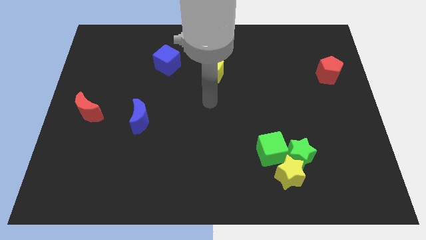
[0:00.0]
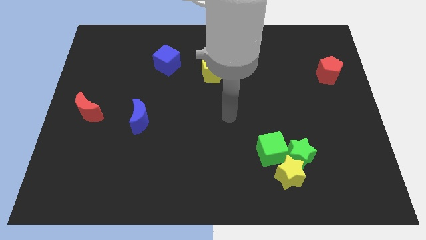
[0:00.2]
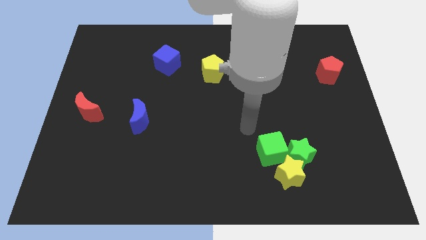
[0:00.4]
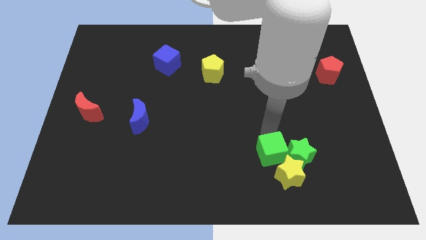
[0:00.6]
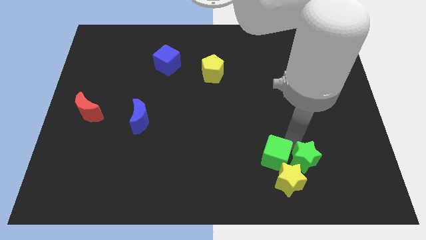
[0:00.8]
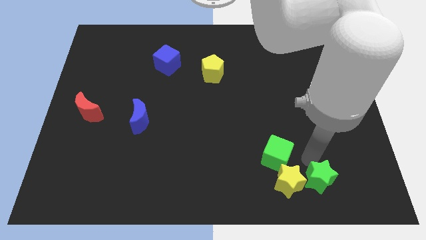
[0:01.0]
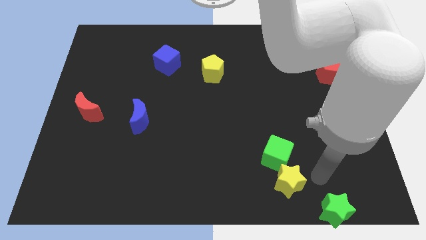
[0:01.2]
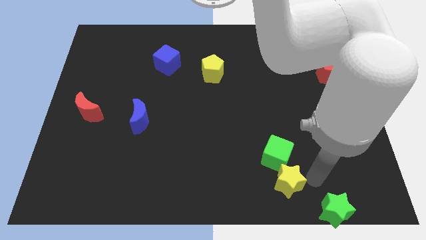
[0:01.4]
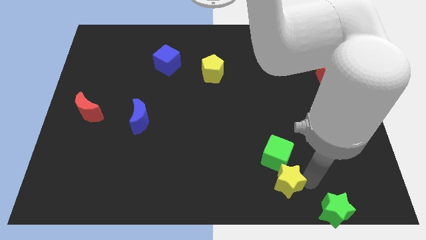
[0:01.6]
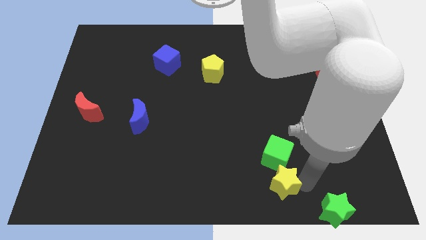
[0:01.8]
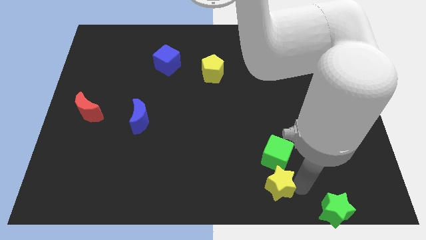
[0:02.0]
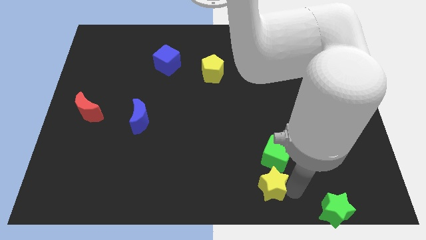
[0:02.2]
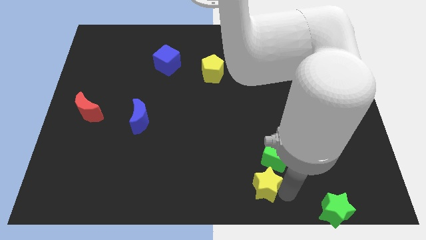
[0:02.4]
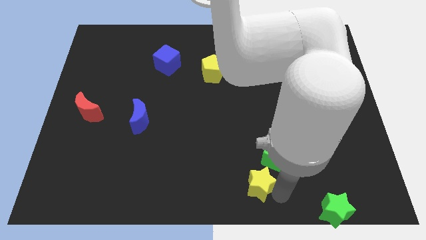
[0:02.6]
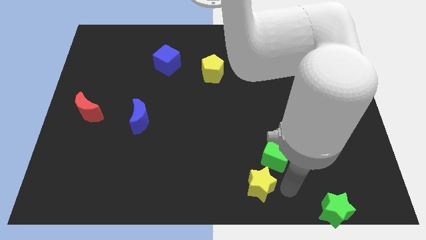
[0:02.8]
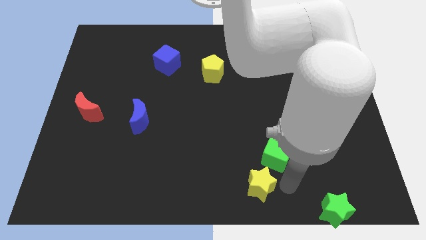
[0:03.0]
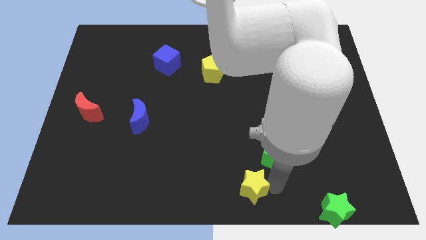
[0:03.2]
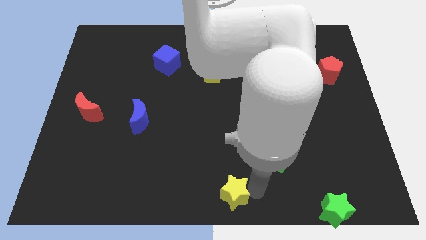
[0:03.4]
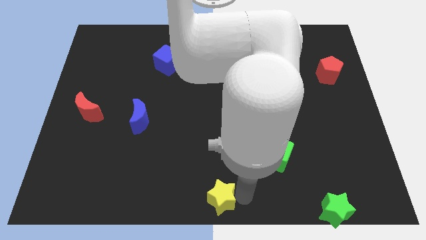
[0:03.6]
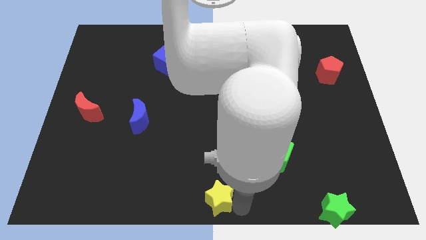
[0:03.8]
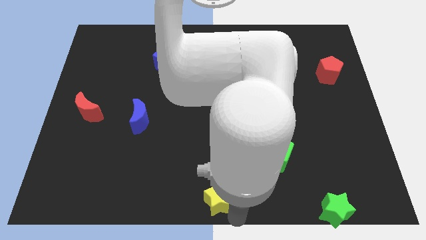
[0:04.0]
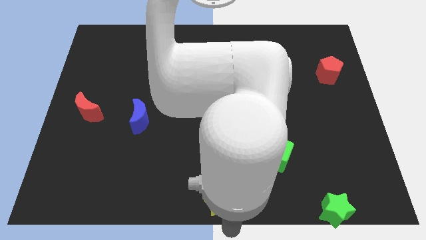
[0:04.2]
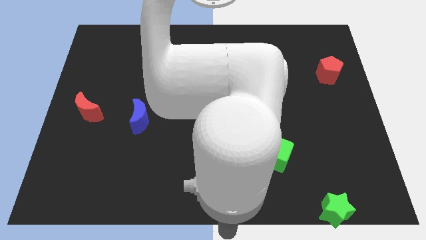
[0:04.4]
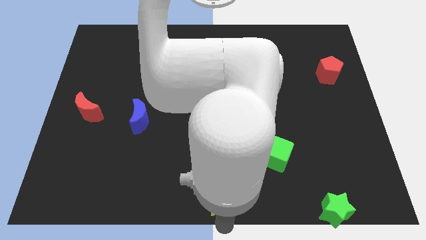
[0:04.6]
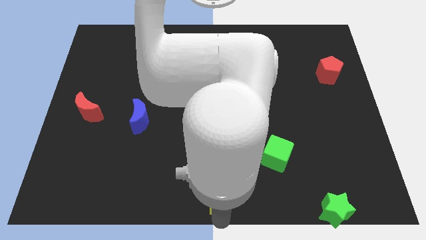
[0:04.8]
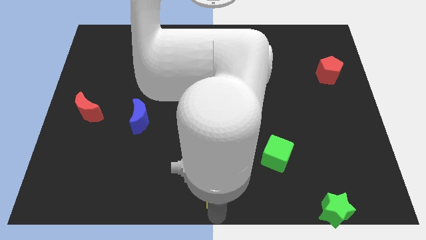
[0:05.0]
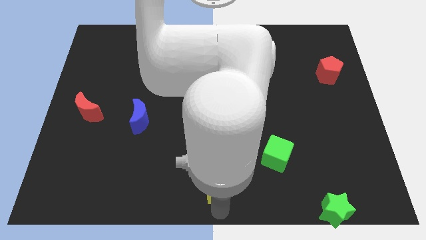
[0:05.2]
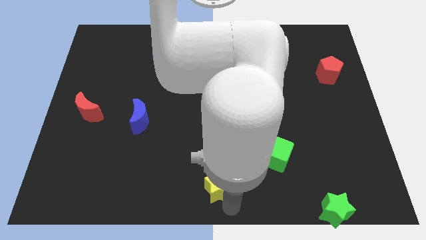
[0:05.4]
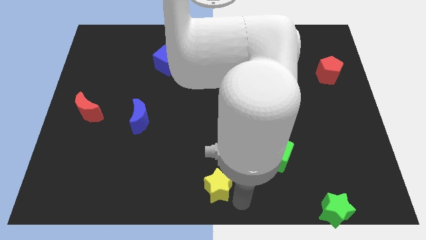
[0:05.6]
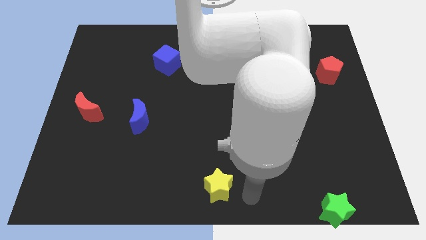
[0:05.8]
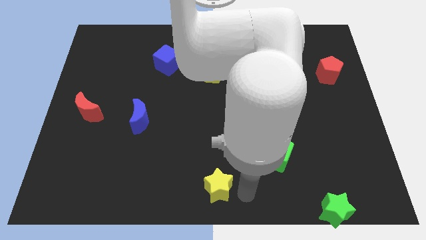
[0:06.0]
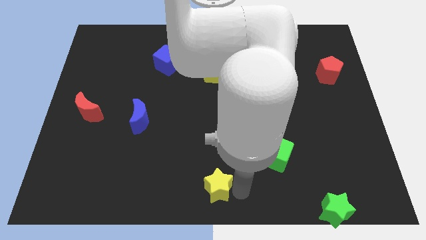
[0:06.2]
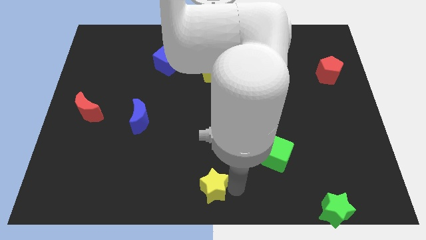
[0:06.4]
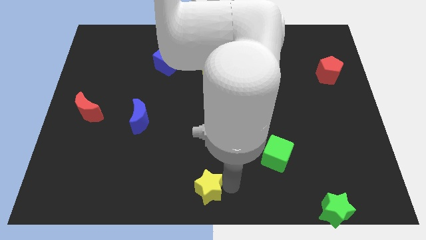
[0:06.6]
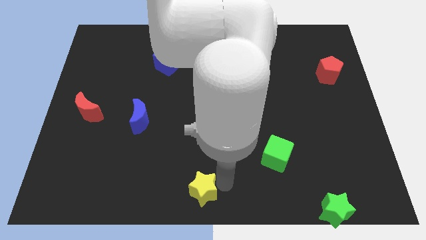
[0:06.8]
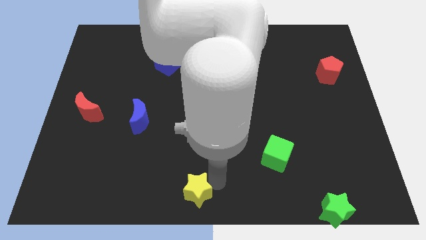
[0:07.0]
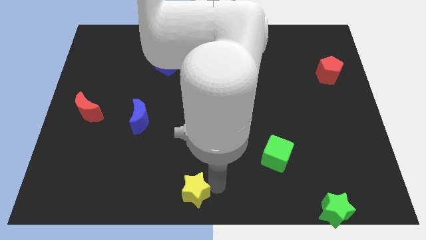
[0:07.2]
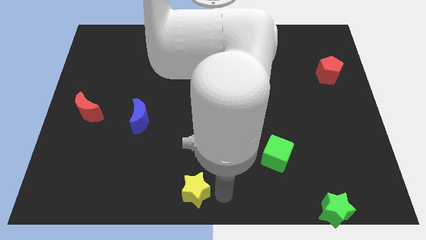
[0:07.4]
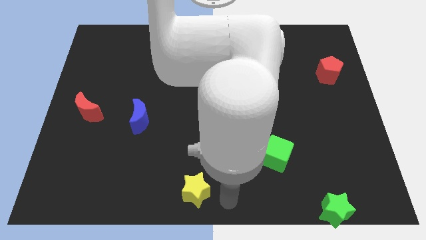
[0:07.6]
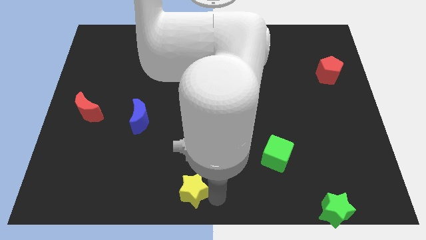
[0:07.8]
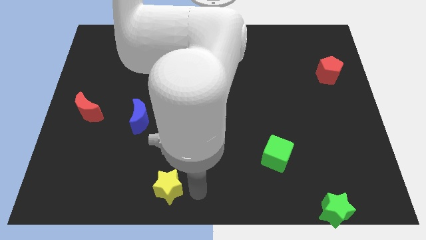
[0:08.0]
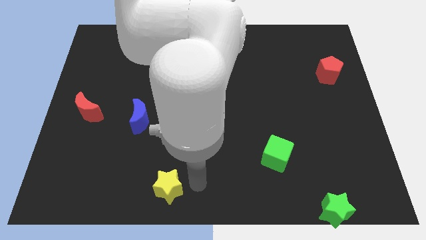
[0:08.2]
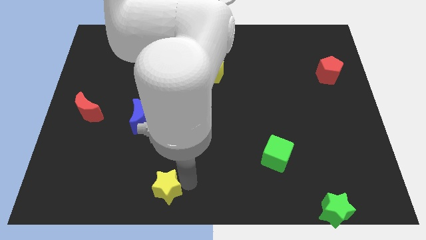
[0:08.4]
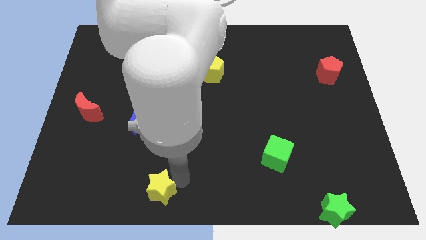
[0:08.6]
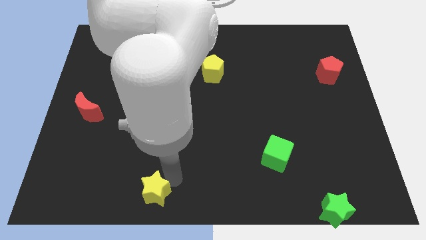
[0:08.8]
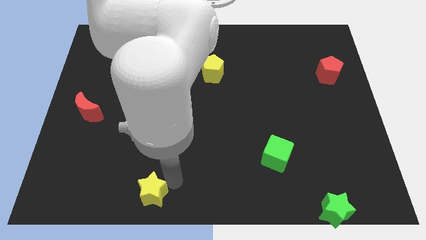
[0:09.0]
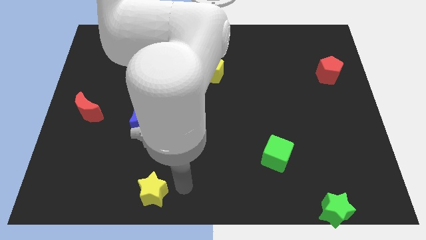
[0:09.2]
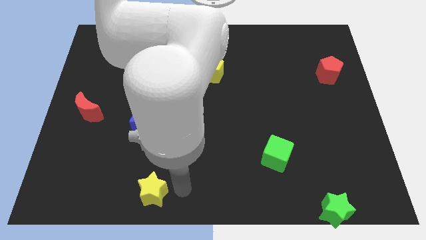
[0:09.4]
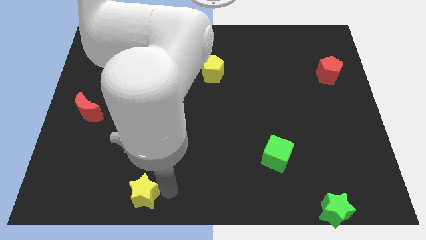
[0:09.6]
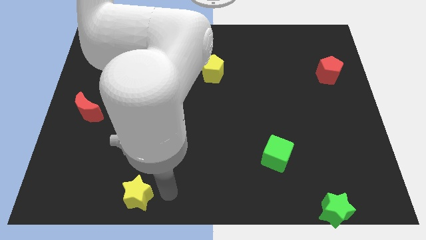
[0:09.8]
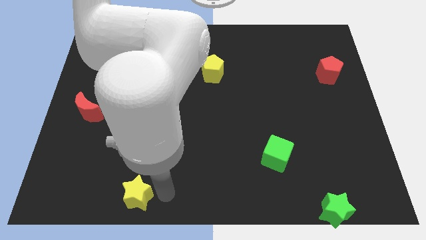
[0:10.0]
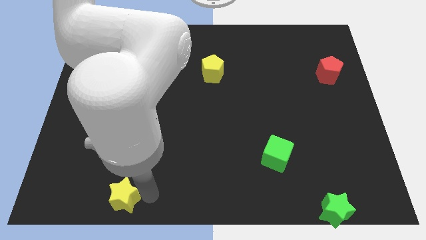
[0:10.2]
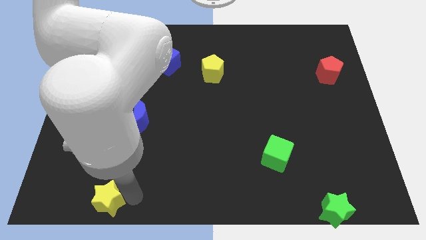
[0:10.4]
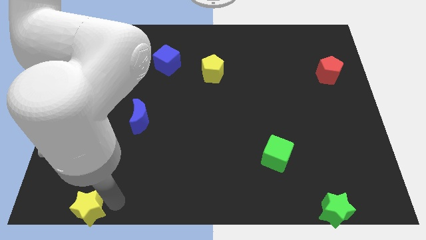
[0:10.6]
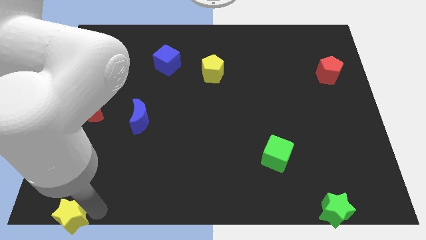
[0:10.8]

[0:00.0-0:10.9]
slide the yellow star to the bottom left of the board

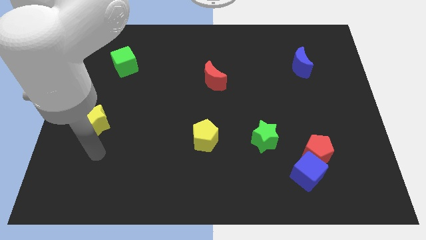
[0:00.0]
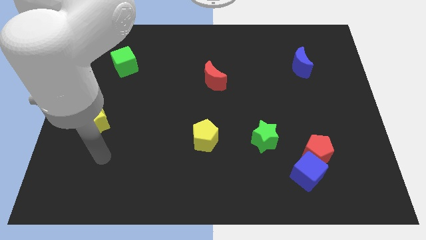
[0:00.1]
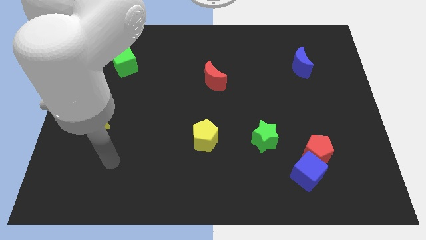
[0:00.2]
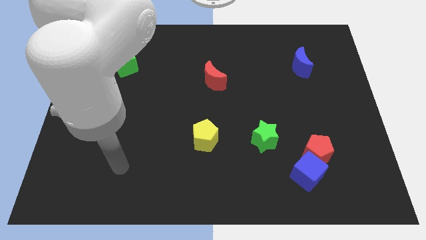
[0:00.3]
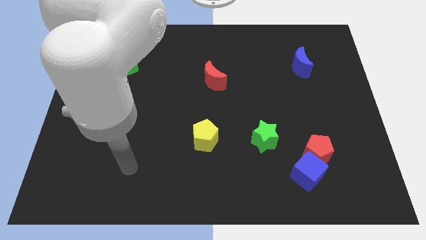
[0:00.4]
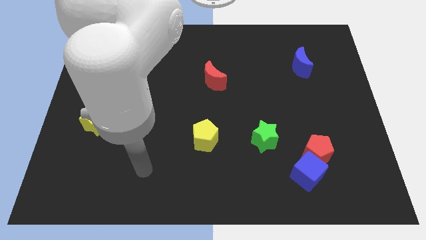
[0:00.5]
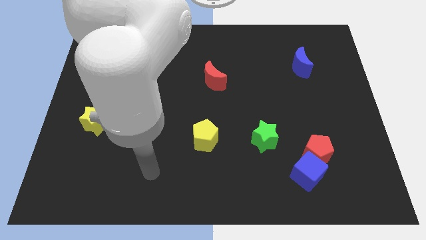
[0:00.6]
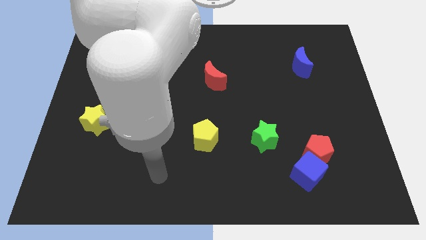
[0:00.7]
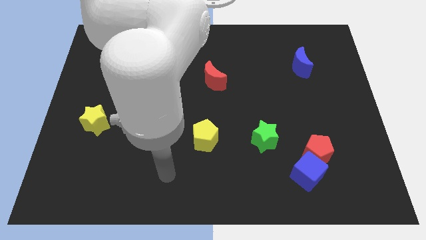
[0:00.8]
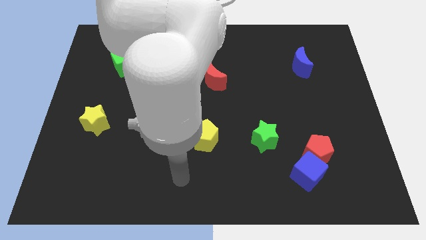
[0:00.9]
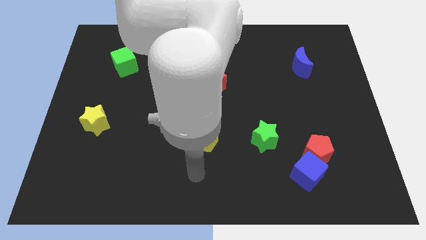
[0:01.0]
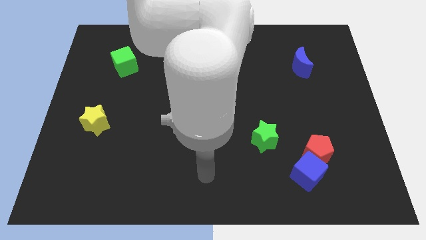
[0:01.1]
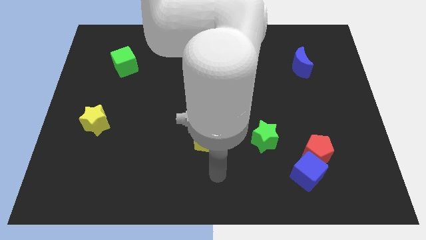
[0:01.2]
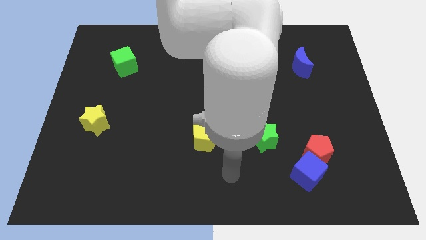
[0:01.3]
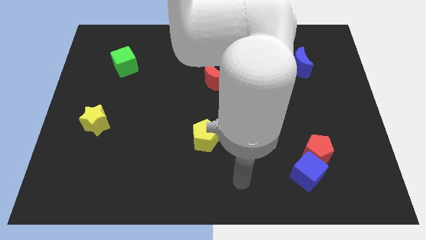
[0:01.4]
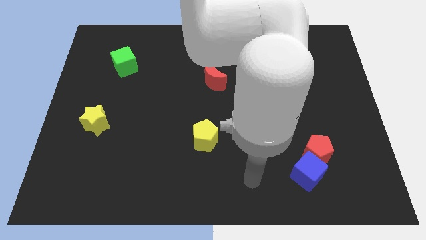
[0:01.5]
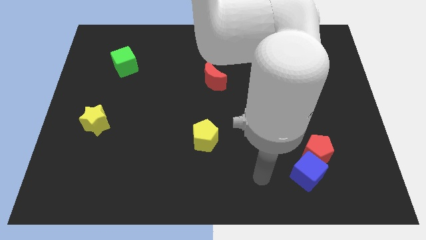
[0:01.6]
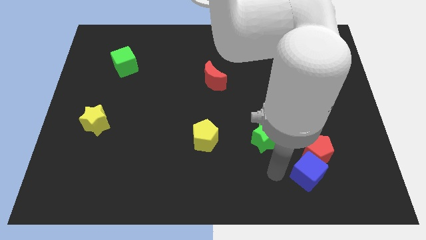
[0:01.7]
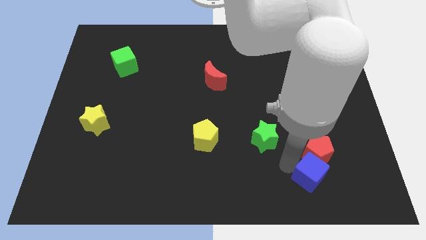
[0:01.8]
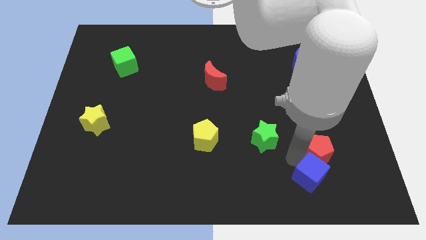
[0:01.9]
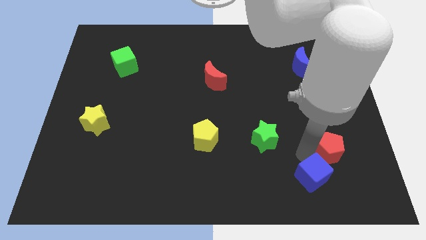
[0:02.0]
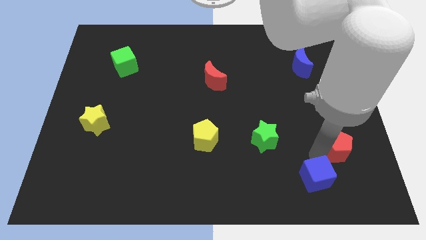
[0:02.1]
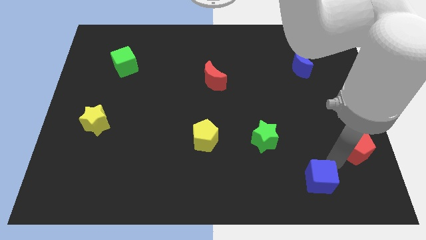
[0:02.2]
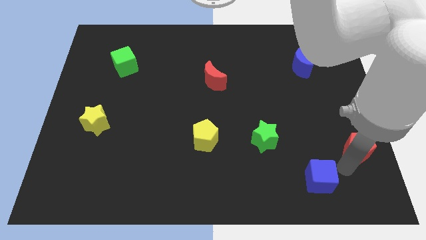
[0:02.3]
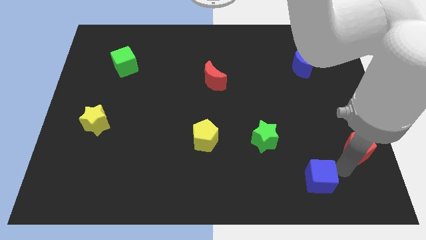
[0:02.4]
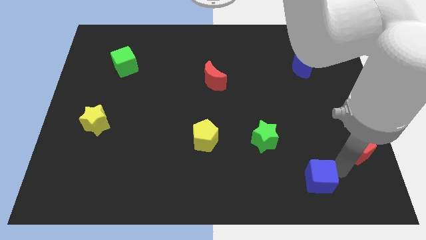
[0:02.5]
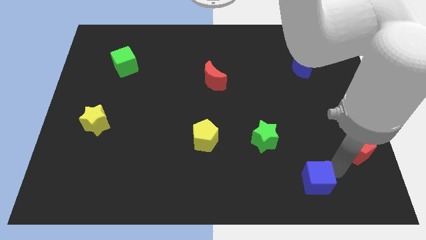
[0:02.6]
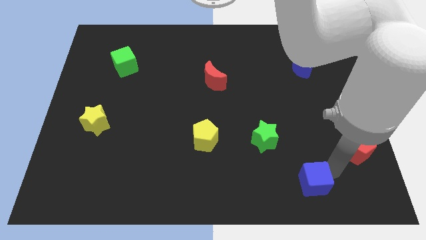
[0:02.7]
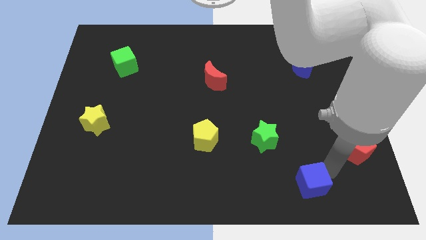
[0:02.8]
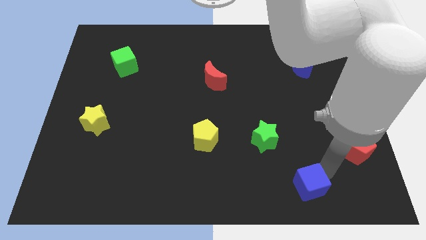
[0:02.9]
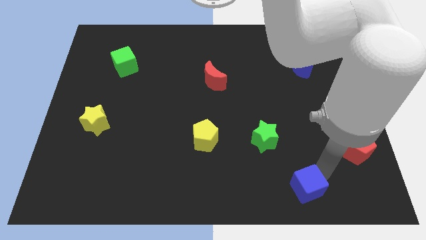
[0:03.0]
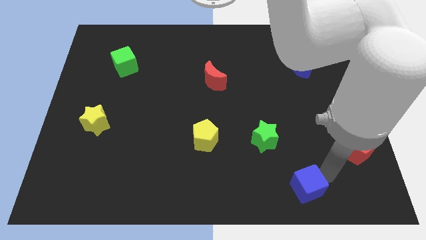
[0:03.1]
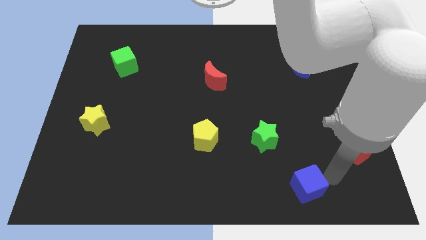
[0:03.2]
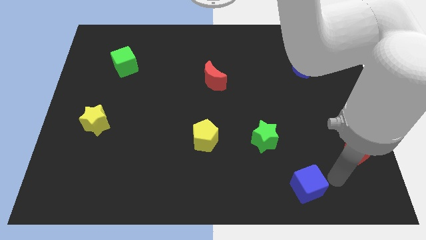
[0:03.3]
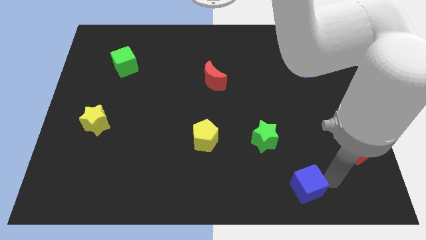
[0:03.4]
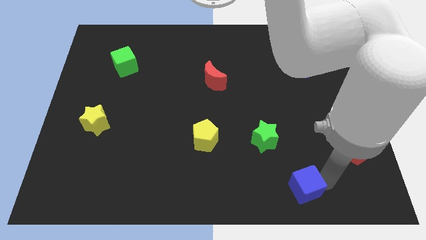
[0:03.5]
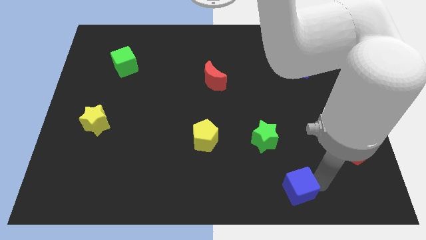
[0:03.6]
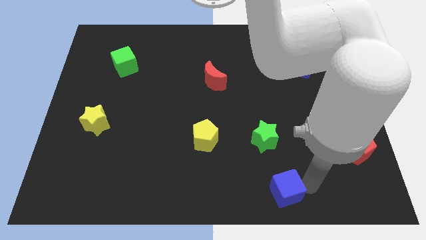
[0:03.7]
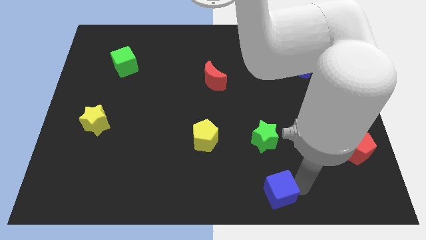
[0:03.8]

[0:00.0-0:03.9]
slide the blue cube to the bottom side
